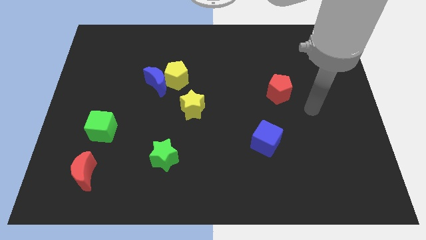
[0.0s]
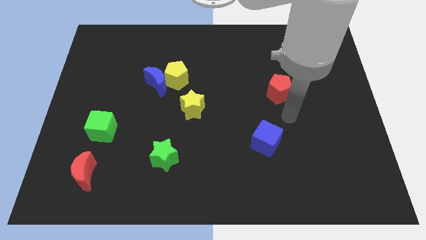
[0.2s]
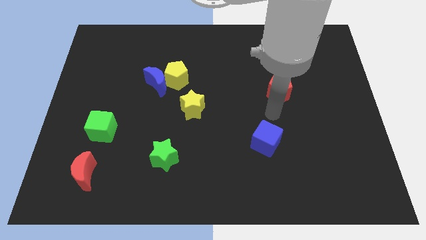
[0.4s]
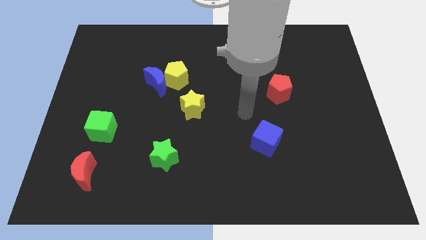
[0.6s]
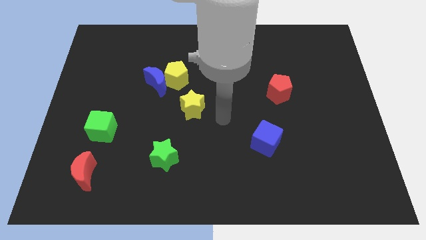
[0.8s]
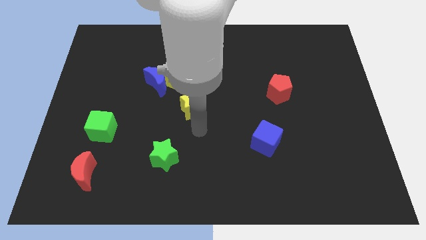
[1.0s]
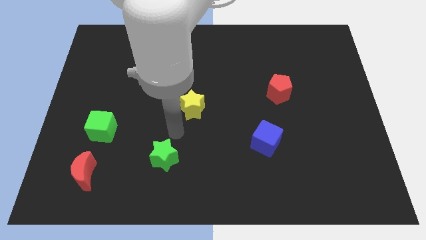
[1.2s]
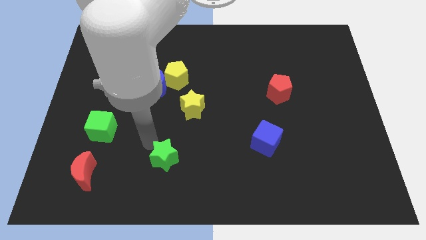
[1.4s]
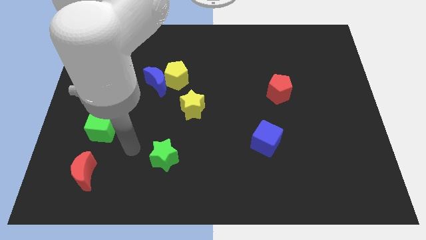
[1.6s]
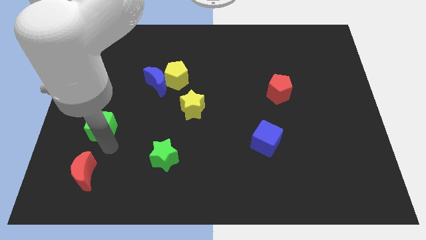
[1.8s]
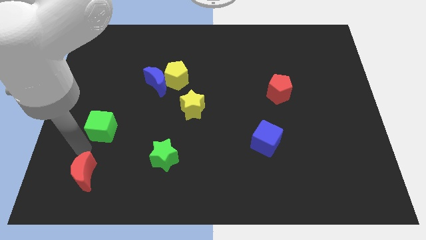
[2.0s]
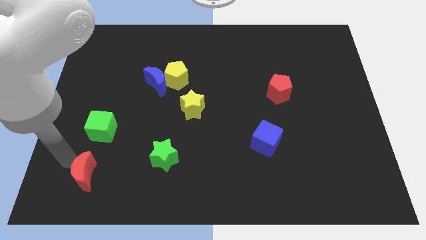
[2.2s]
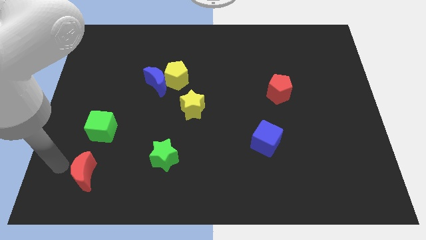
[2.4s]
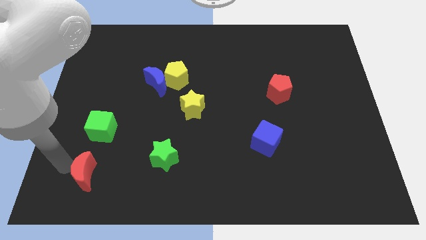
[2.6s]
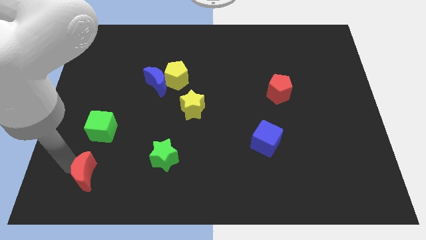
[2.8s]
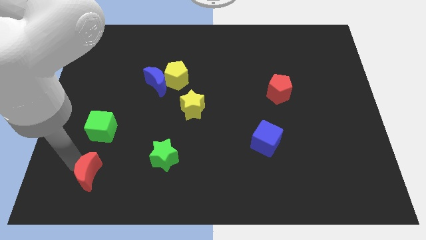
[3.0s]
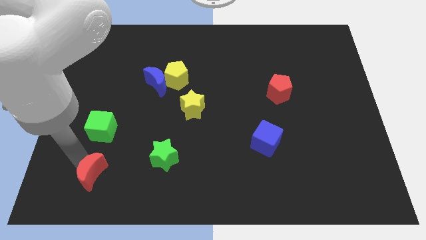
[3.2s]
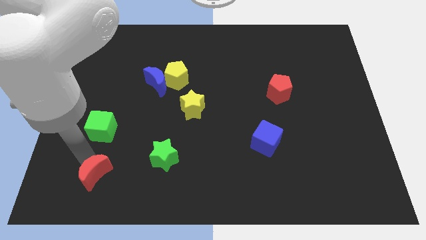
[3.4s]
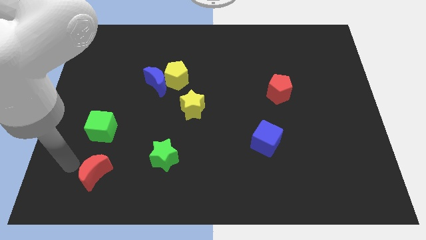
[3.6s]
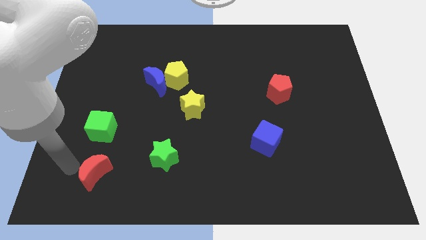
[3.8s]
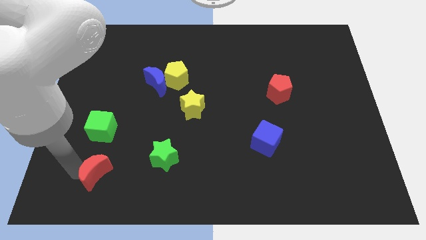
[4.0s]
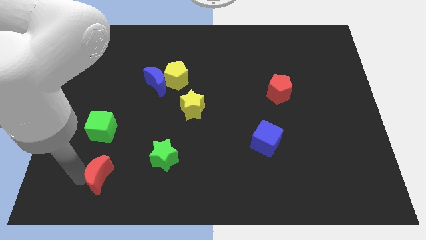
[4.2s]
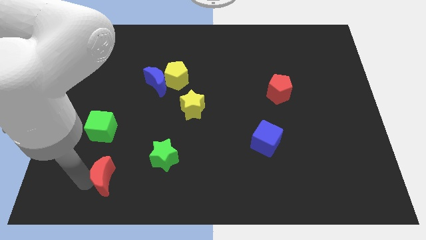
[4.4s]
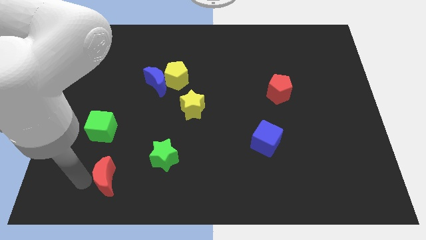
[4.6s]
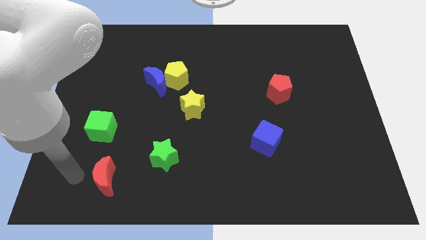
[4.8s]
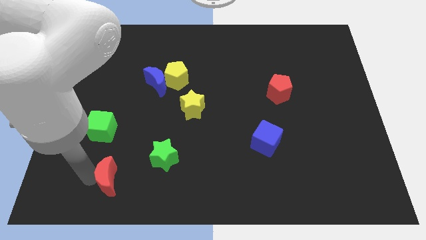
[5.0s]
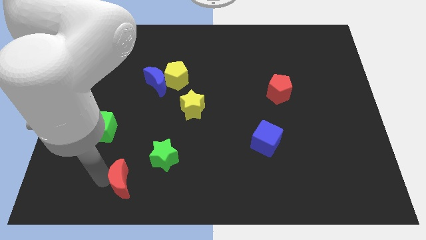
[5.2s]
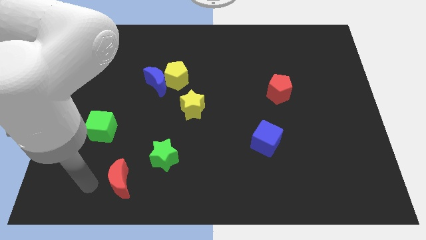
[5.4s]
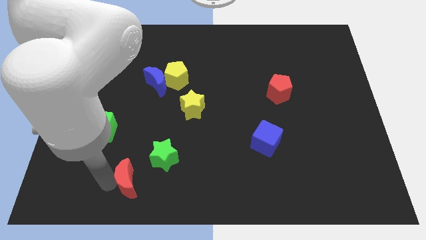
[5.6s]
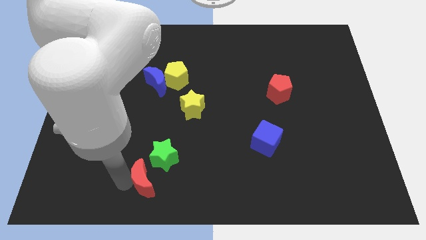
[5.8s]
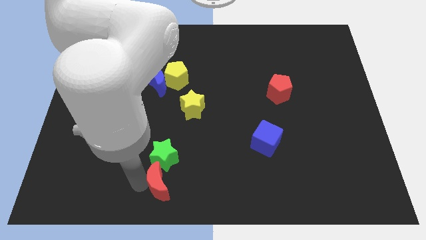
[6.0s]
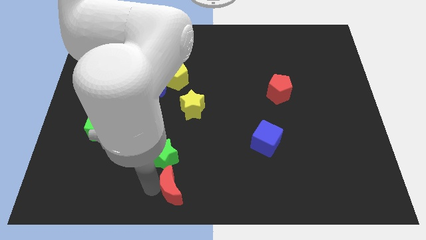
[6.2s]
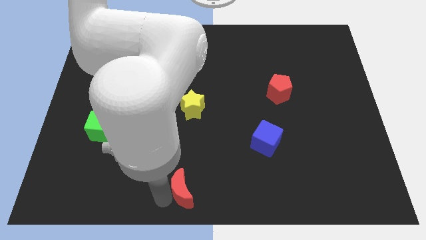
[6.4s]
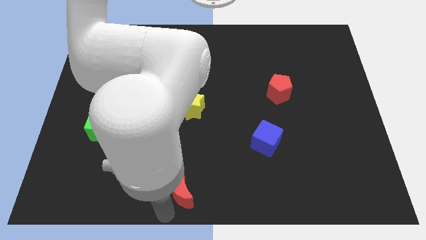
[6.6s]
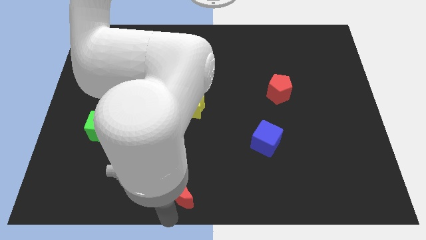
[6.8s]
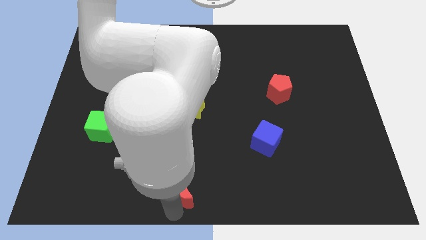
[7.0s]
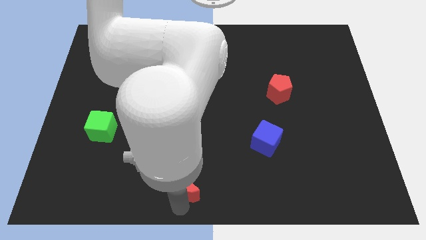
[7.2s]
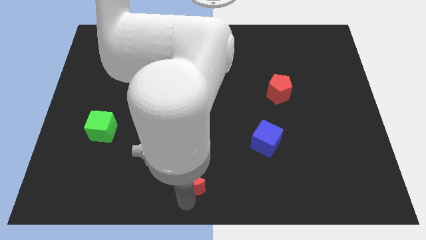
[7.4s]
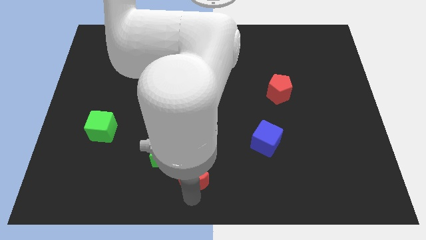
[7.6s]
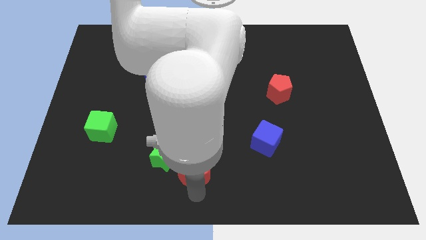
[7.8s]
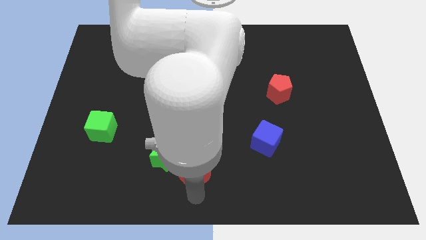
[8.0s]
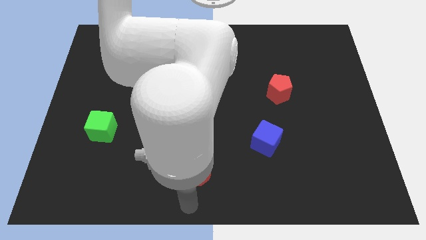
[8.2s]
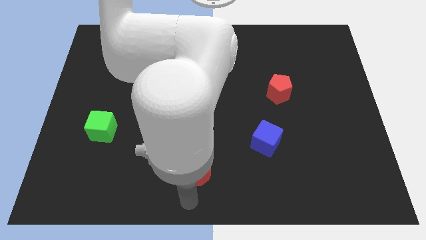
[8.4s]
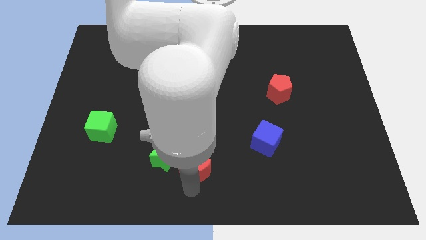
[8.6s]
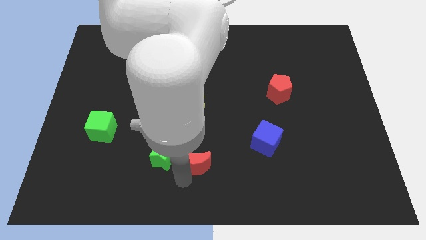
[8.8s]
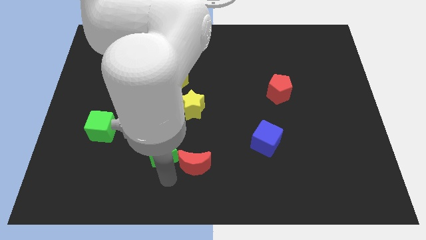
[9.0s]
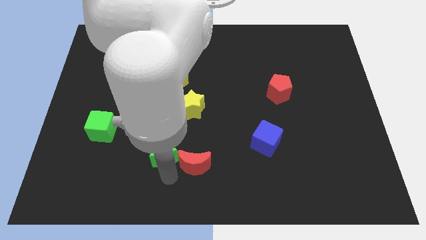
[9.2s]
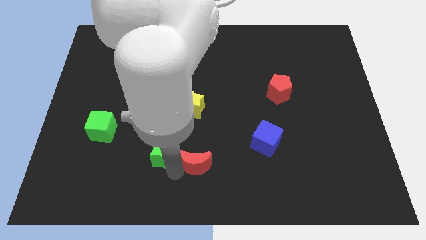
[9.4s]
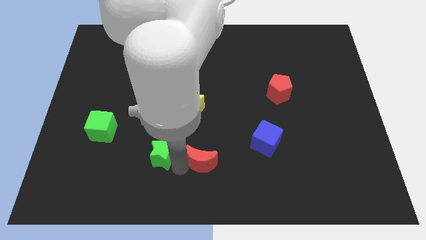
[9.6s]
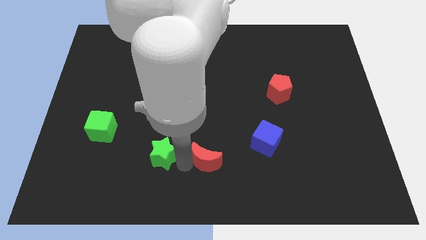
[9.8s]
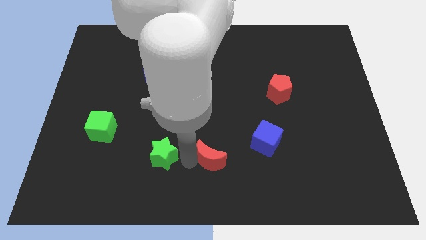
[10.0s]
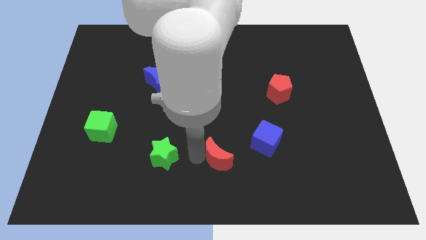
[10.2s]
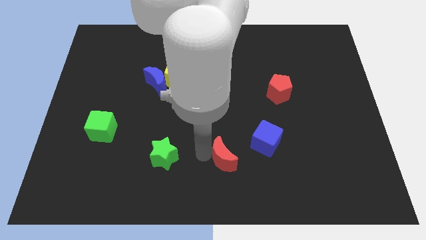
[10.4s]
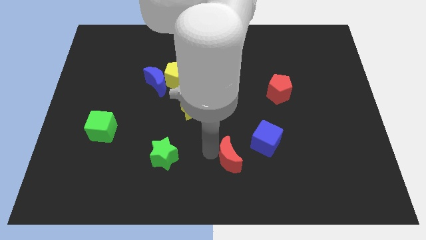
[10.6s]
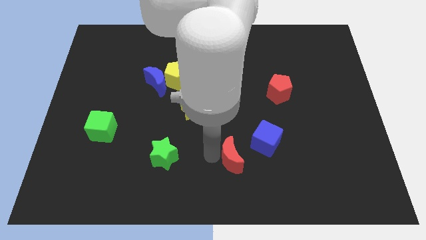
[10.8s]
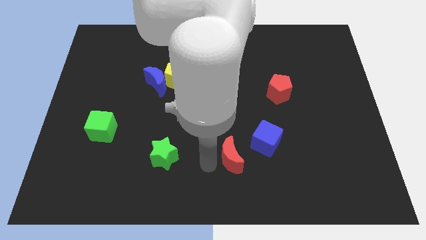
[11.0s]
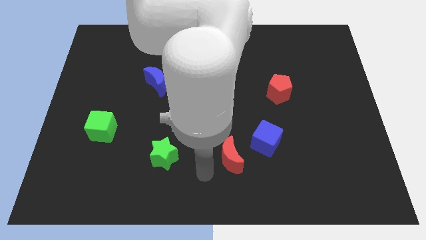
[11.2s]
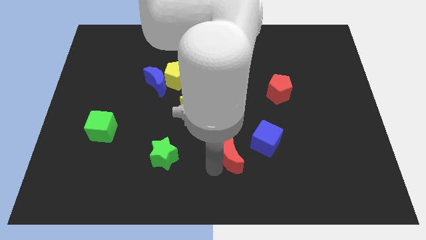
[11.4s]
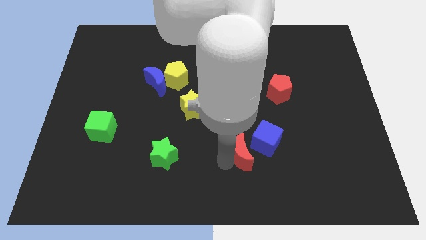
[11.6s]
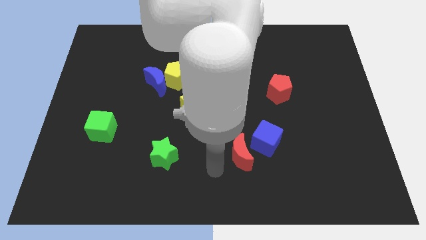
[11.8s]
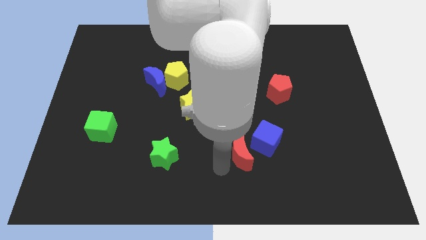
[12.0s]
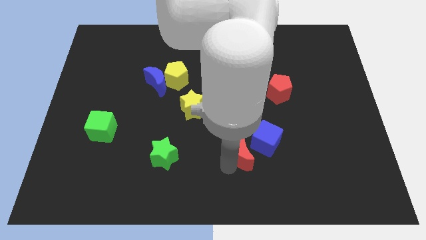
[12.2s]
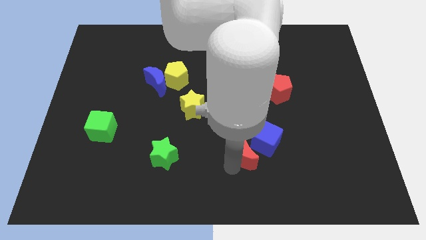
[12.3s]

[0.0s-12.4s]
push the red moon towards the blue cube

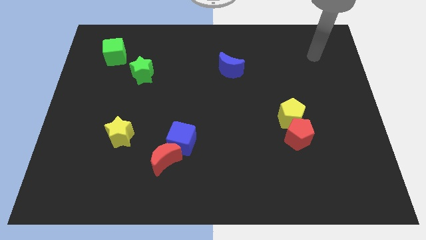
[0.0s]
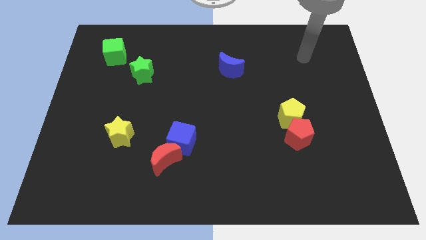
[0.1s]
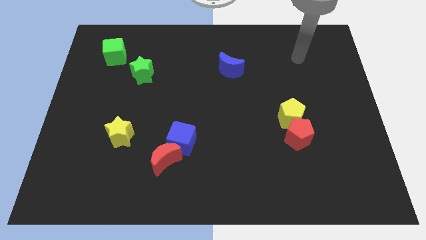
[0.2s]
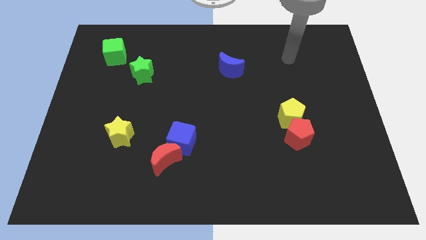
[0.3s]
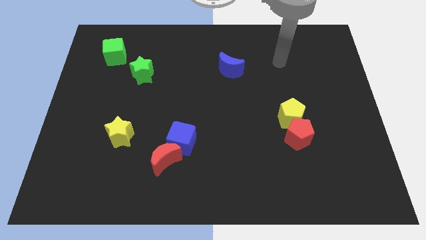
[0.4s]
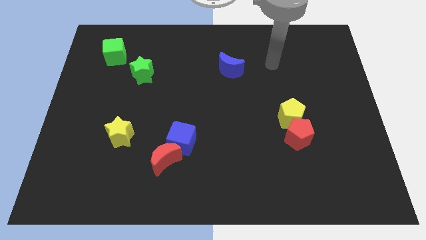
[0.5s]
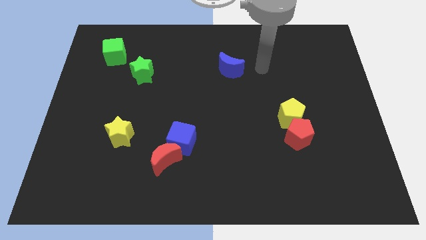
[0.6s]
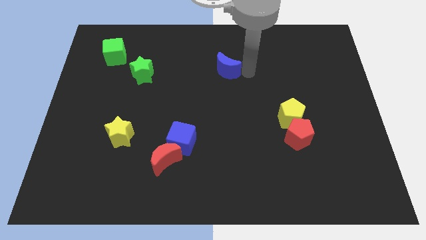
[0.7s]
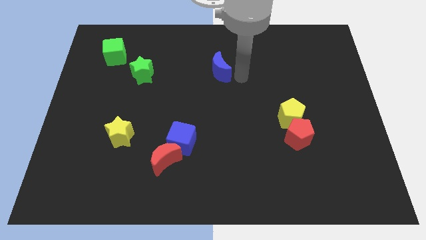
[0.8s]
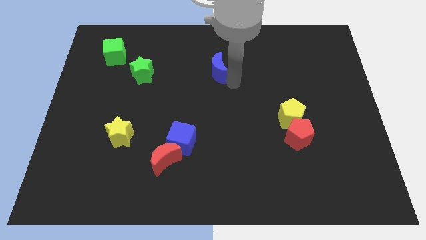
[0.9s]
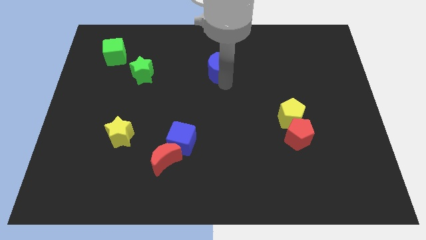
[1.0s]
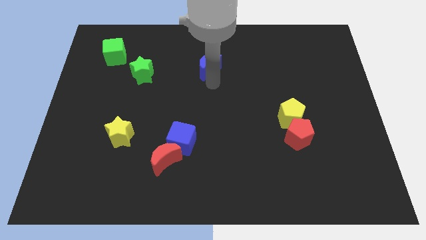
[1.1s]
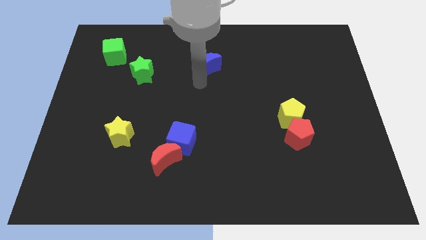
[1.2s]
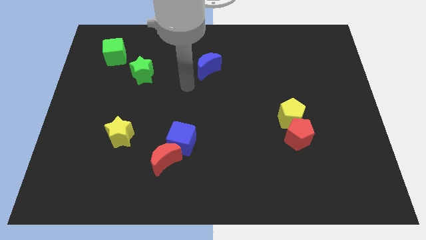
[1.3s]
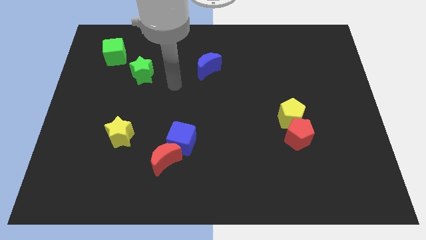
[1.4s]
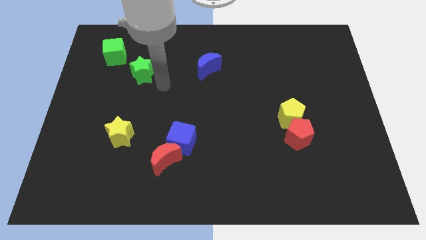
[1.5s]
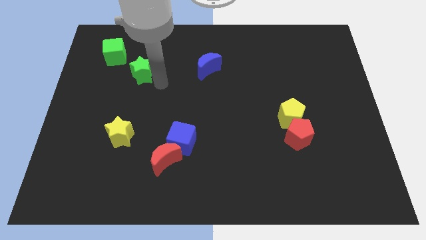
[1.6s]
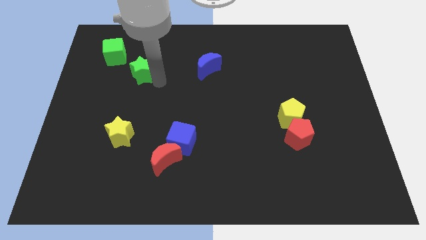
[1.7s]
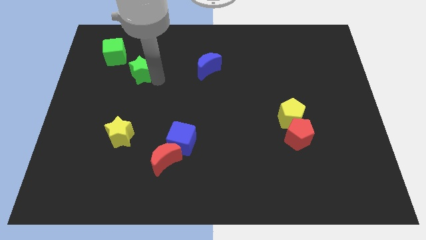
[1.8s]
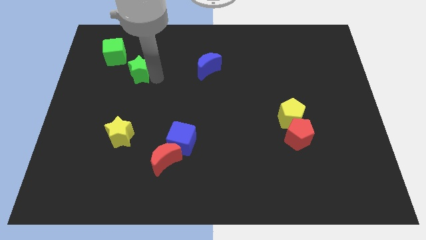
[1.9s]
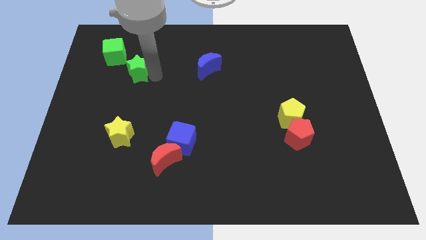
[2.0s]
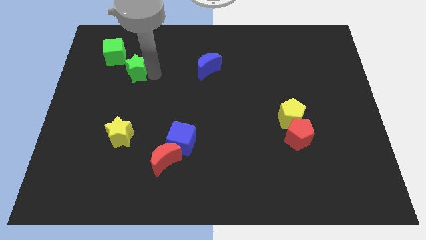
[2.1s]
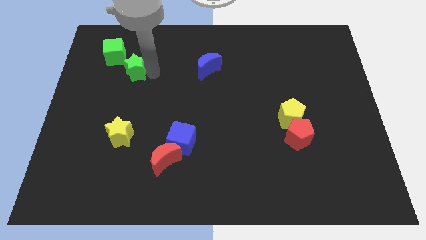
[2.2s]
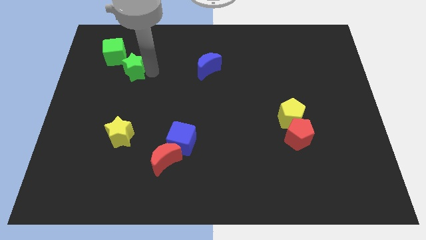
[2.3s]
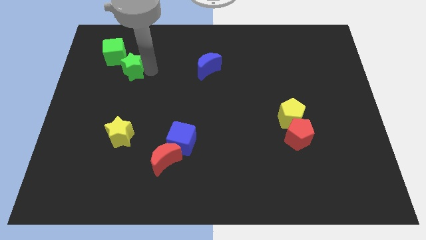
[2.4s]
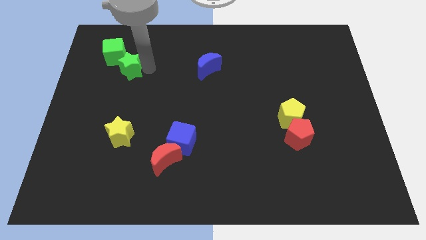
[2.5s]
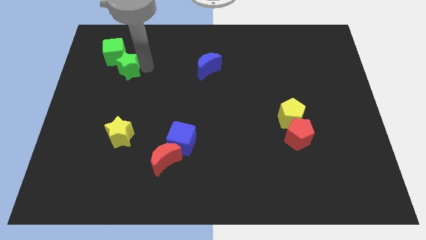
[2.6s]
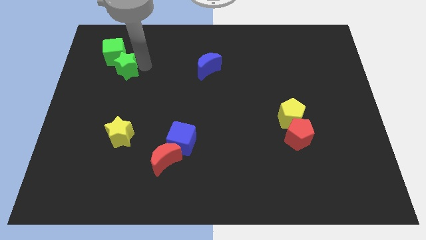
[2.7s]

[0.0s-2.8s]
push the green star close to the green cube
